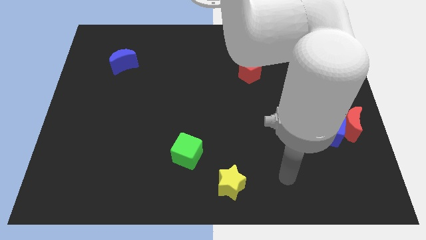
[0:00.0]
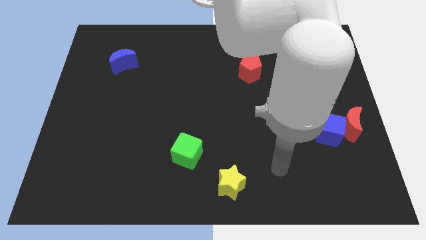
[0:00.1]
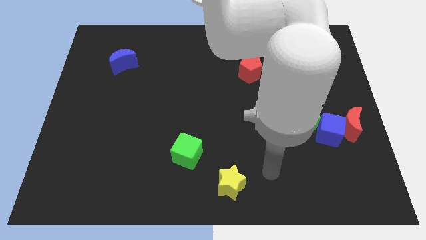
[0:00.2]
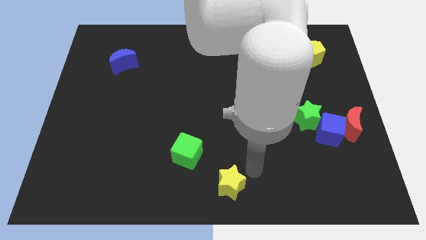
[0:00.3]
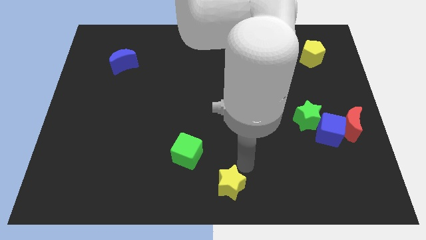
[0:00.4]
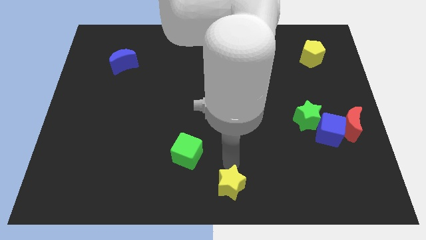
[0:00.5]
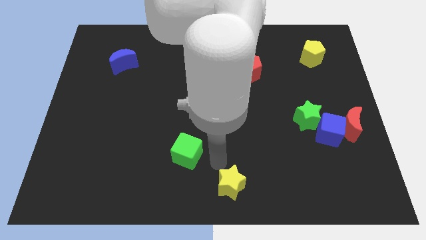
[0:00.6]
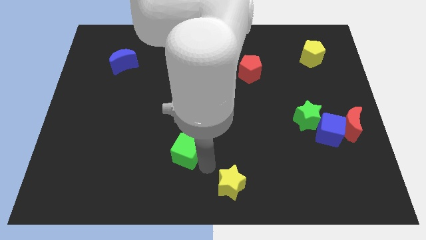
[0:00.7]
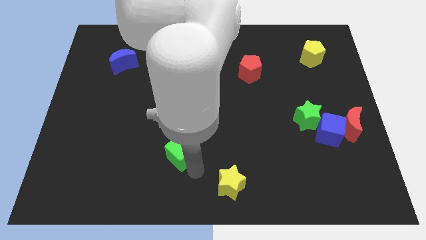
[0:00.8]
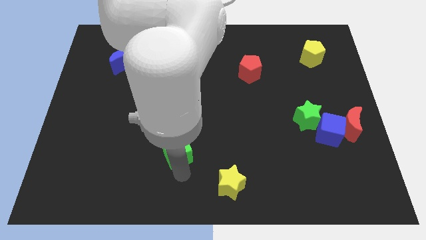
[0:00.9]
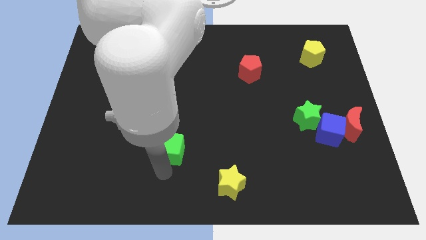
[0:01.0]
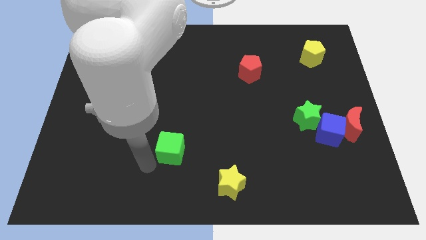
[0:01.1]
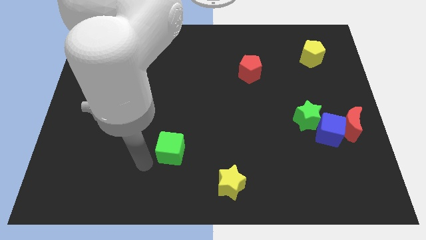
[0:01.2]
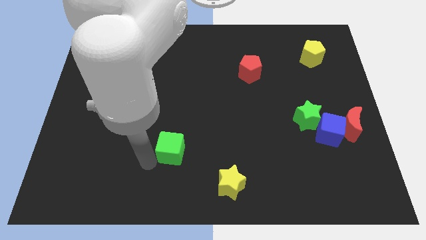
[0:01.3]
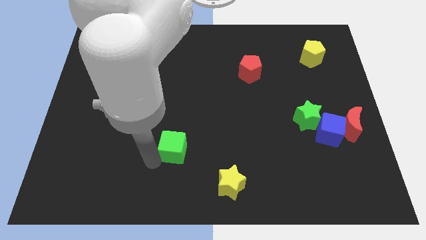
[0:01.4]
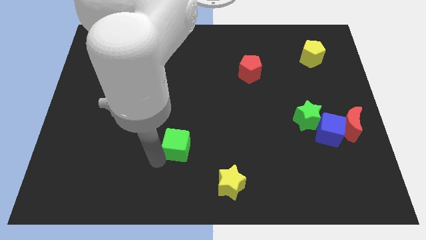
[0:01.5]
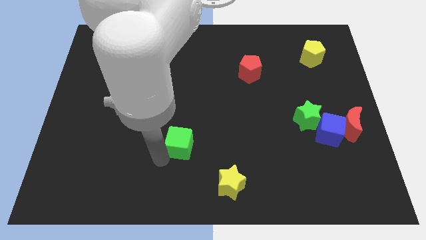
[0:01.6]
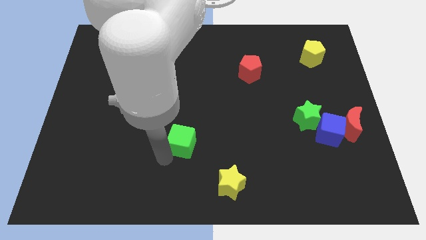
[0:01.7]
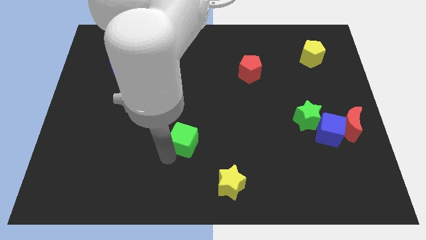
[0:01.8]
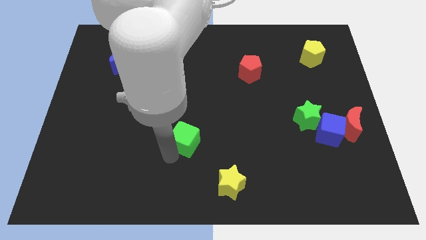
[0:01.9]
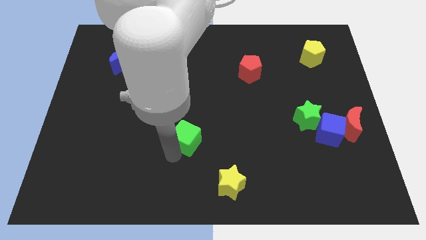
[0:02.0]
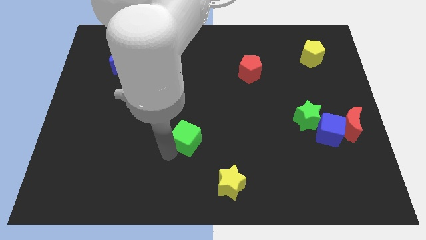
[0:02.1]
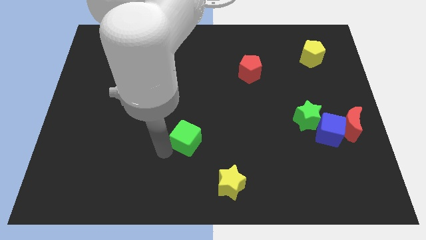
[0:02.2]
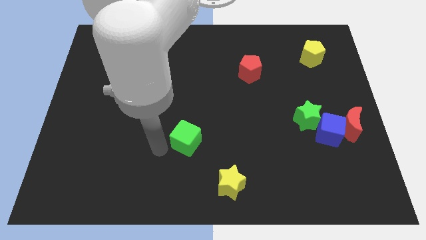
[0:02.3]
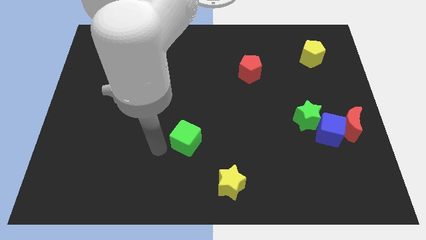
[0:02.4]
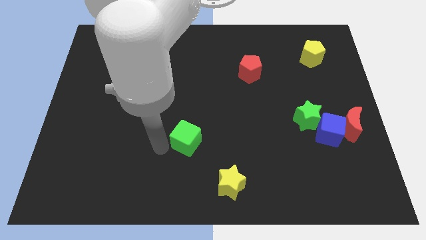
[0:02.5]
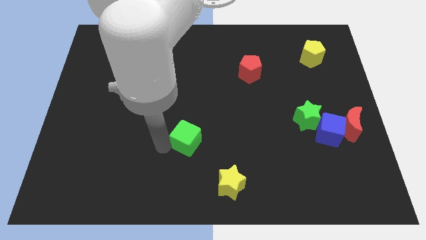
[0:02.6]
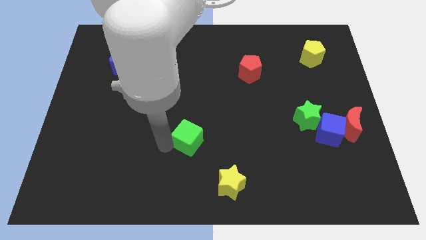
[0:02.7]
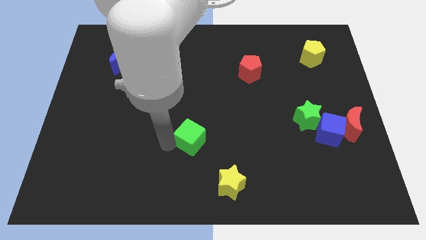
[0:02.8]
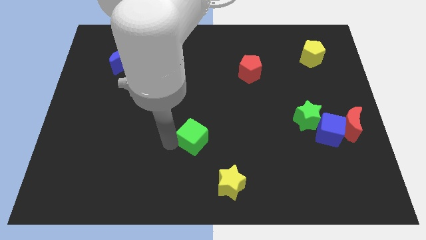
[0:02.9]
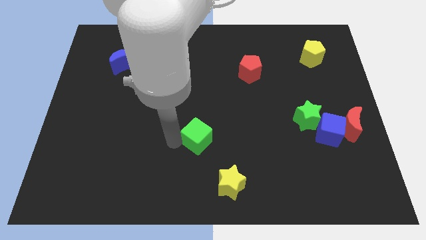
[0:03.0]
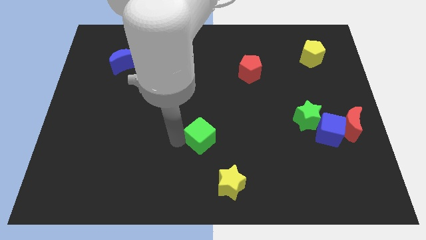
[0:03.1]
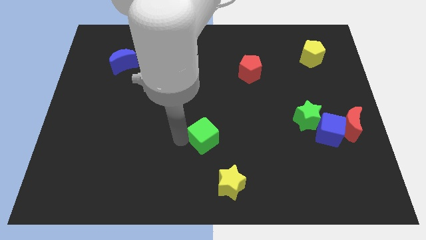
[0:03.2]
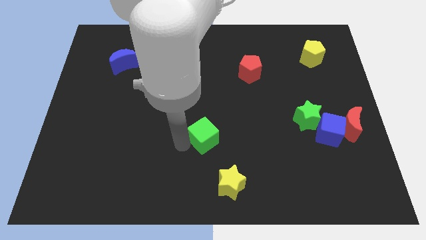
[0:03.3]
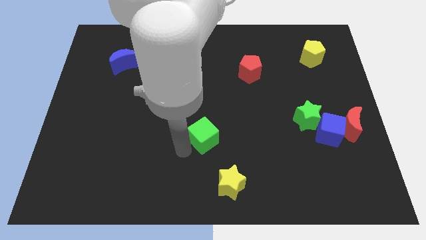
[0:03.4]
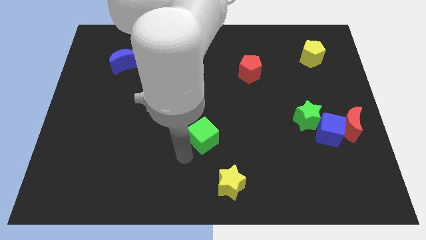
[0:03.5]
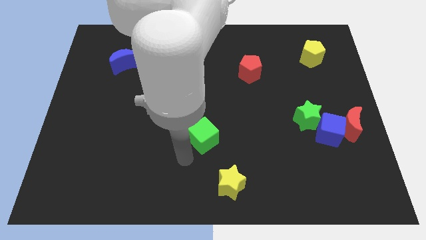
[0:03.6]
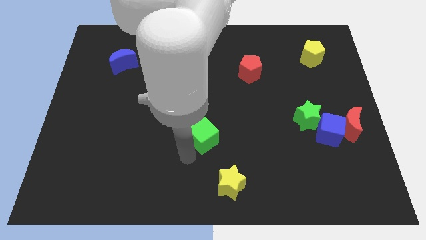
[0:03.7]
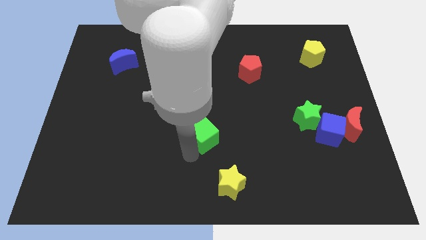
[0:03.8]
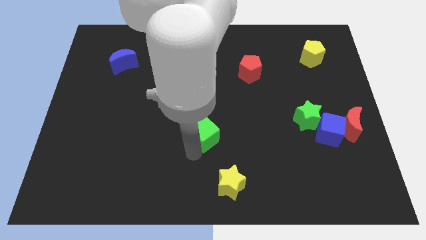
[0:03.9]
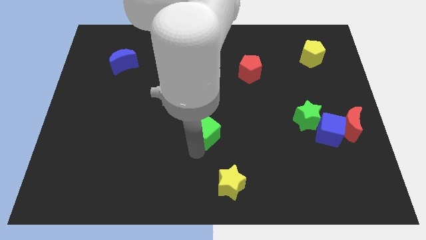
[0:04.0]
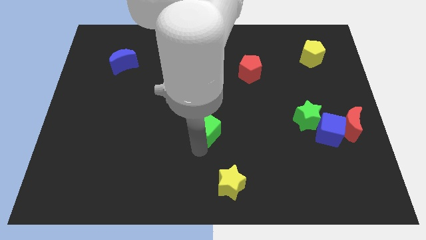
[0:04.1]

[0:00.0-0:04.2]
slightly slide the green cube up and to the right diagonally

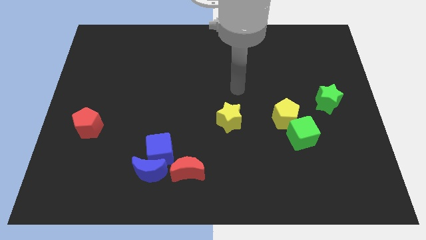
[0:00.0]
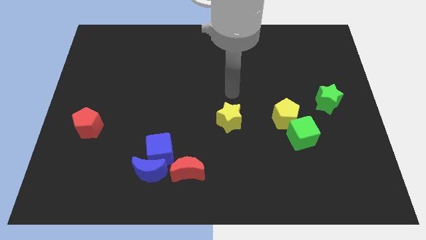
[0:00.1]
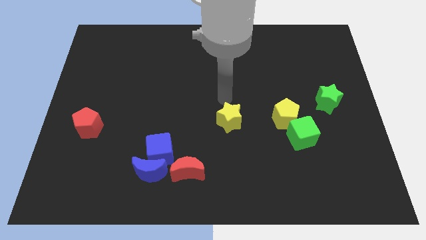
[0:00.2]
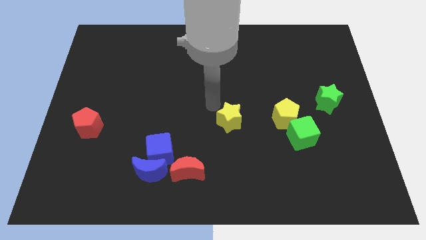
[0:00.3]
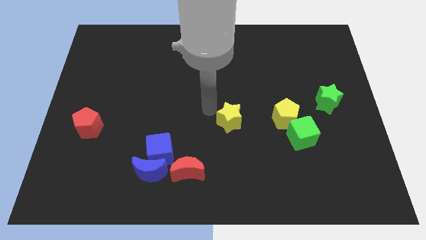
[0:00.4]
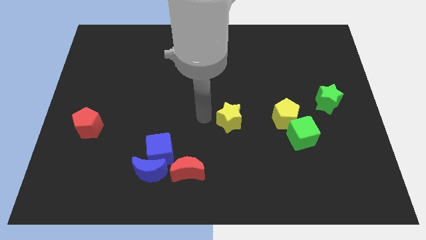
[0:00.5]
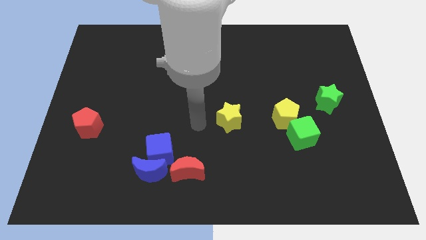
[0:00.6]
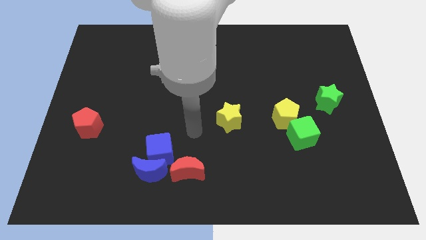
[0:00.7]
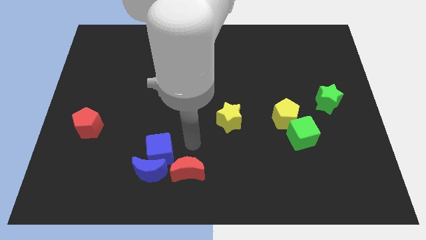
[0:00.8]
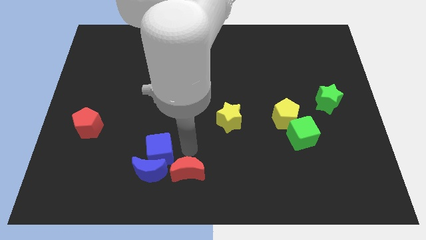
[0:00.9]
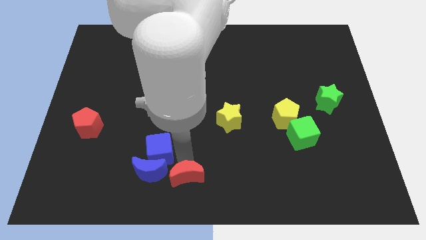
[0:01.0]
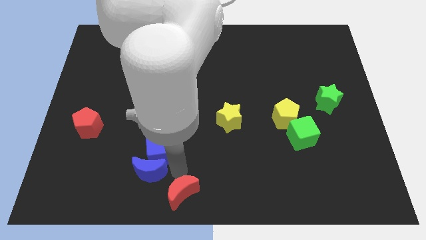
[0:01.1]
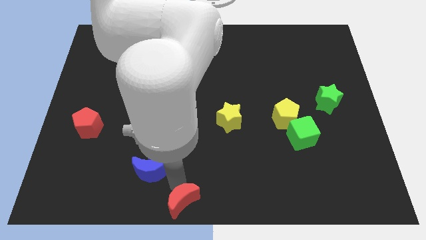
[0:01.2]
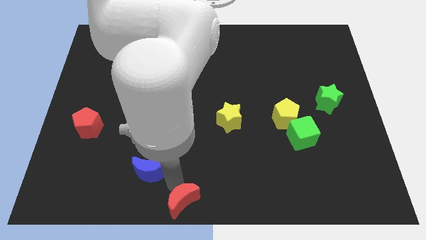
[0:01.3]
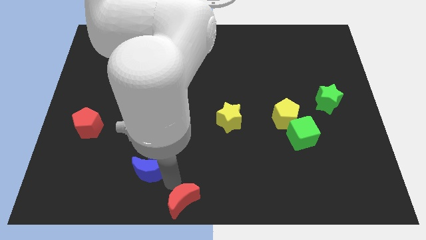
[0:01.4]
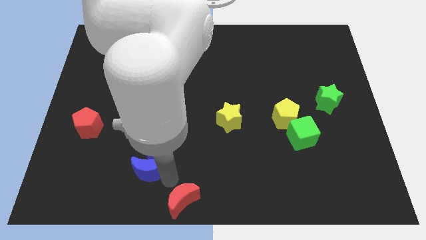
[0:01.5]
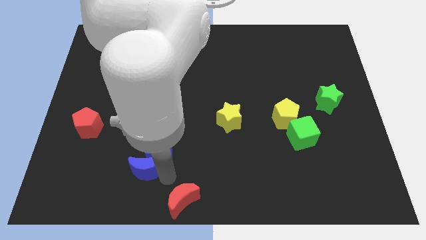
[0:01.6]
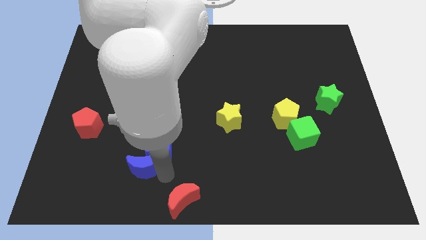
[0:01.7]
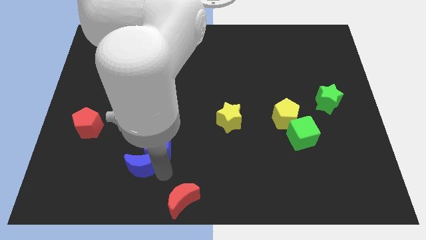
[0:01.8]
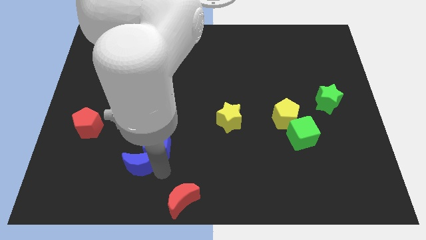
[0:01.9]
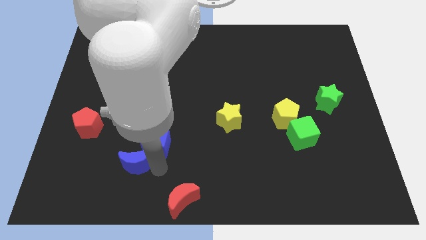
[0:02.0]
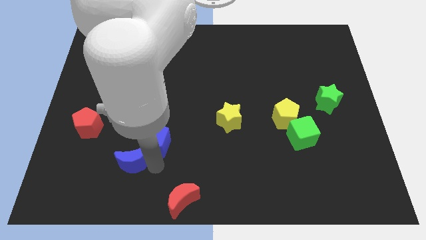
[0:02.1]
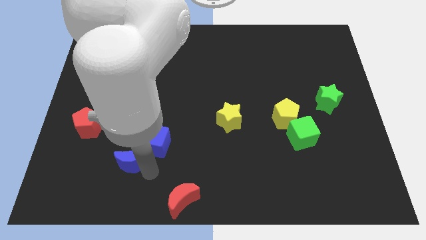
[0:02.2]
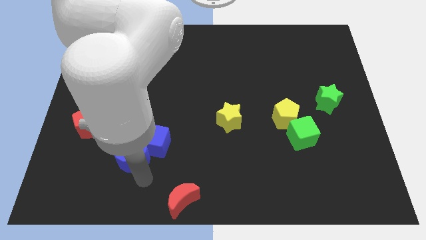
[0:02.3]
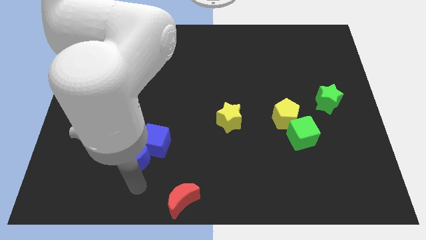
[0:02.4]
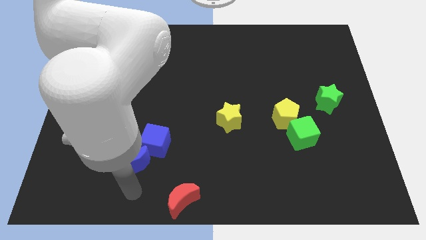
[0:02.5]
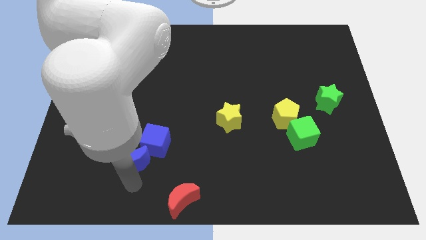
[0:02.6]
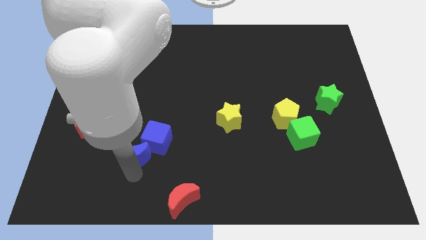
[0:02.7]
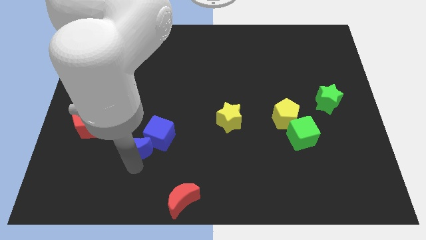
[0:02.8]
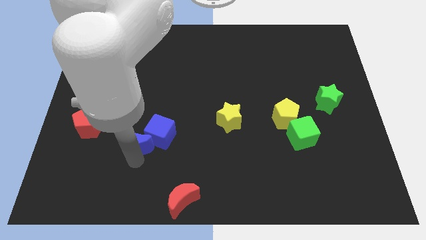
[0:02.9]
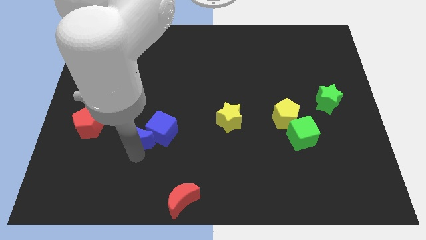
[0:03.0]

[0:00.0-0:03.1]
move the blue moon a little bit upwards

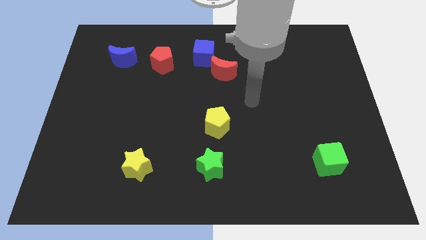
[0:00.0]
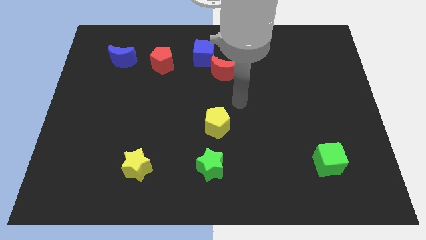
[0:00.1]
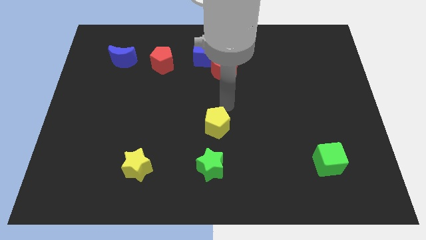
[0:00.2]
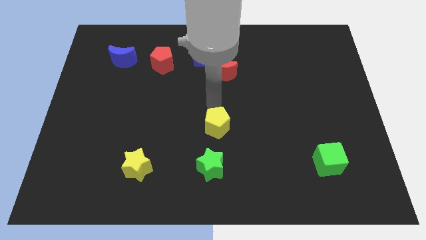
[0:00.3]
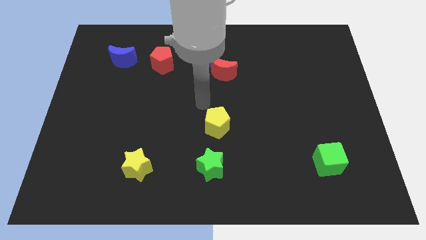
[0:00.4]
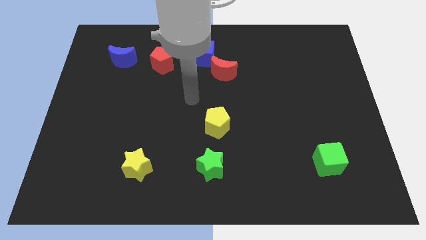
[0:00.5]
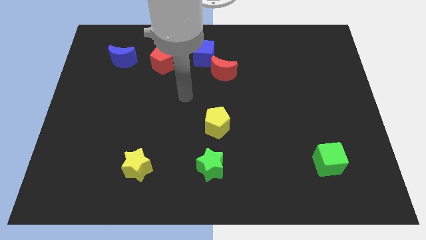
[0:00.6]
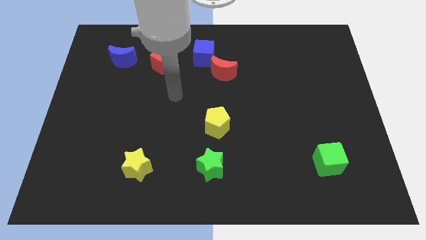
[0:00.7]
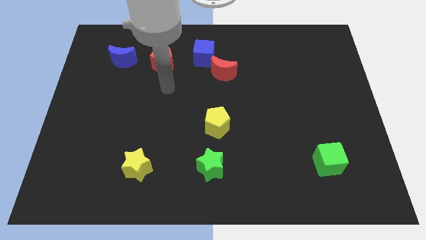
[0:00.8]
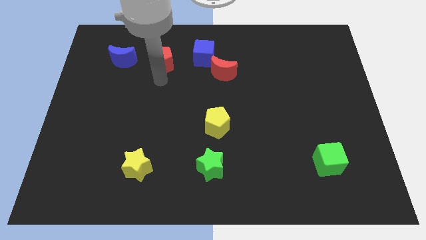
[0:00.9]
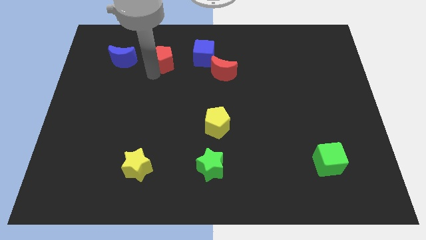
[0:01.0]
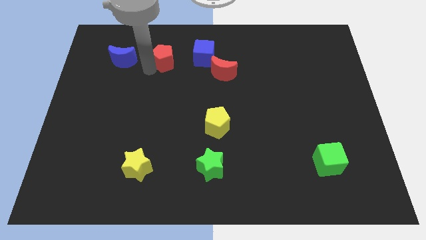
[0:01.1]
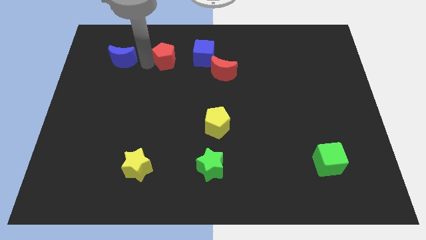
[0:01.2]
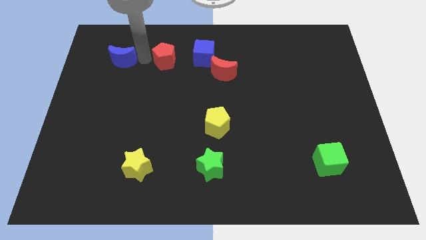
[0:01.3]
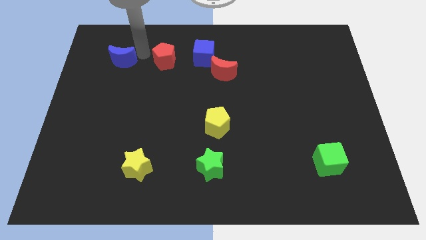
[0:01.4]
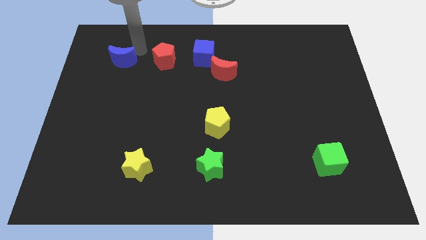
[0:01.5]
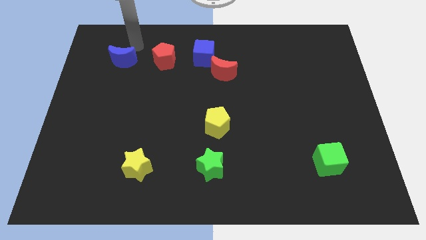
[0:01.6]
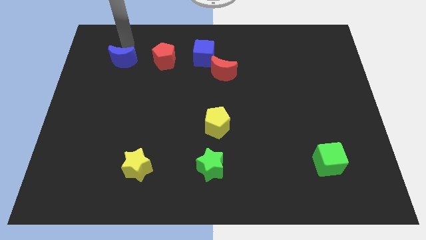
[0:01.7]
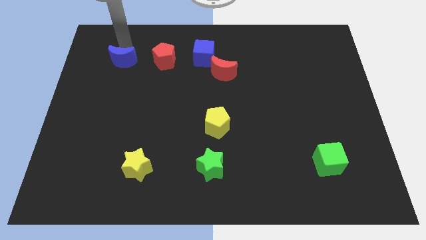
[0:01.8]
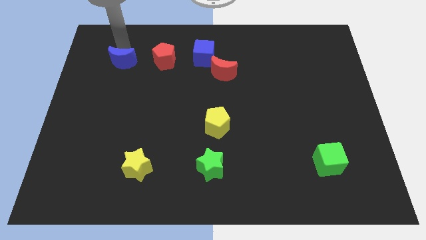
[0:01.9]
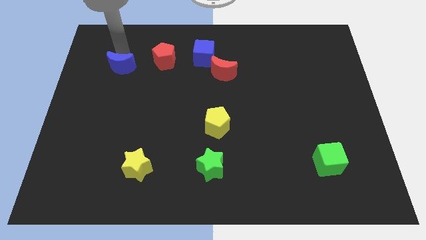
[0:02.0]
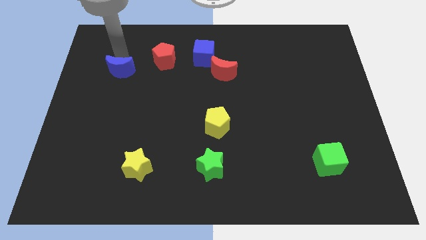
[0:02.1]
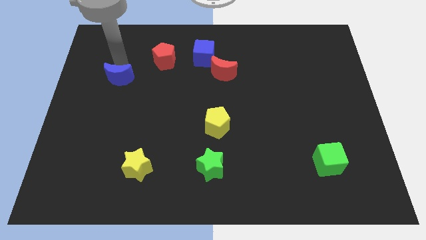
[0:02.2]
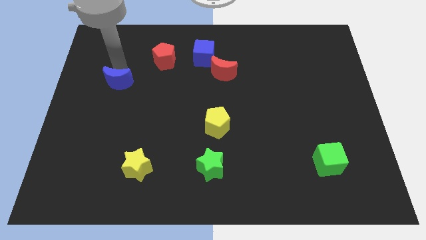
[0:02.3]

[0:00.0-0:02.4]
slightly move the blue moon downwards
